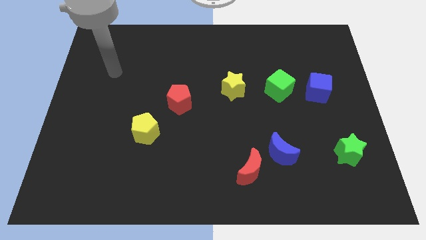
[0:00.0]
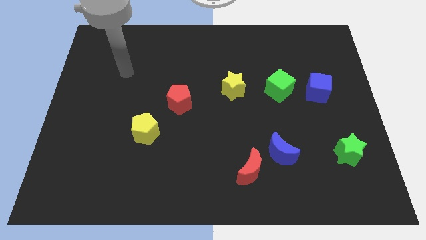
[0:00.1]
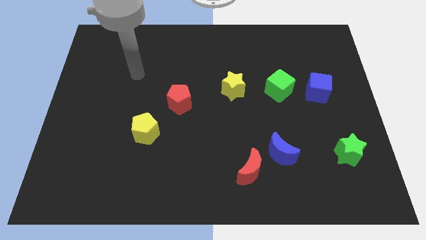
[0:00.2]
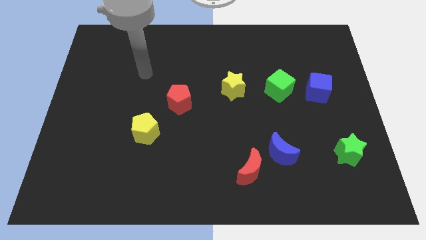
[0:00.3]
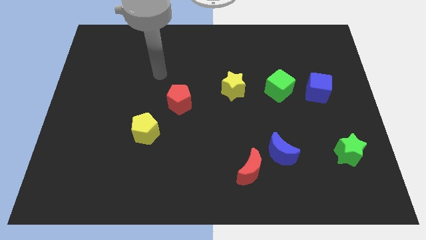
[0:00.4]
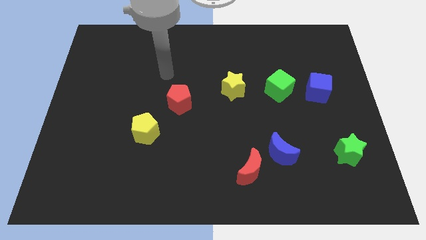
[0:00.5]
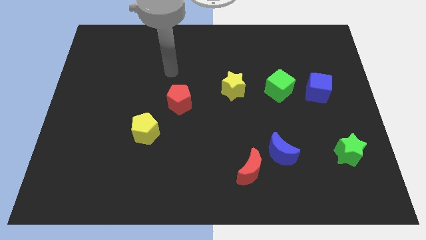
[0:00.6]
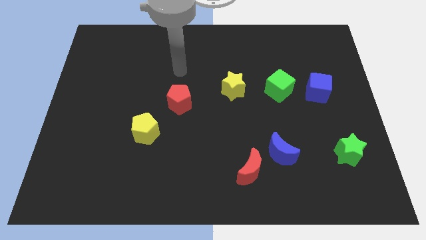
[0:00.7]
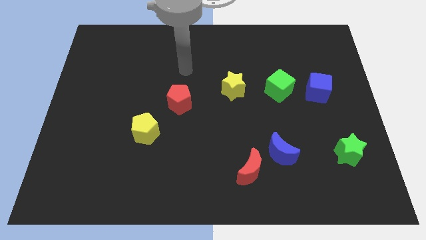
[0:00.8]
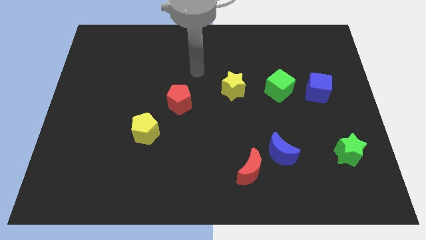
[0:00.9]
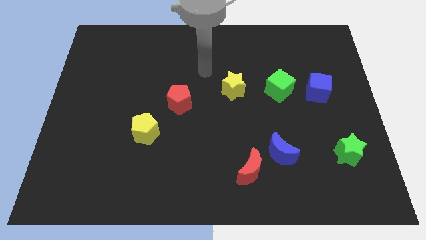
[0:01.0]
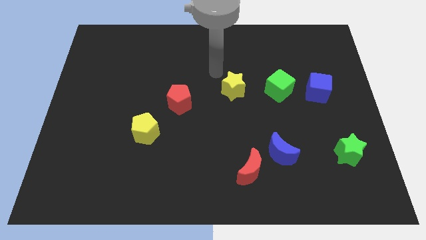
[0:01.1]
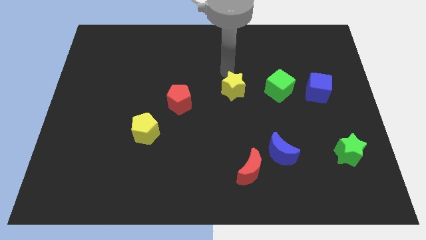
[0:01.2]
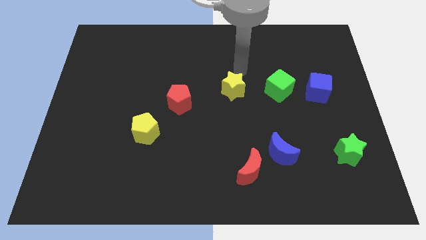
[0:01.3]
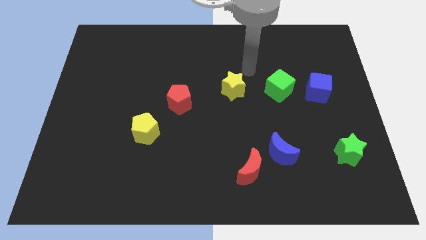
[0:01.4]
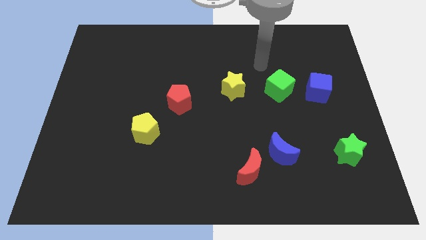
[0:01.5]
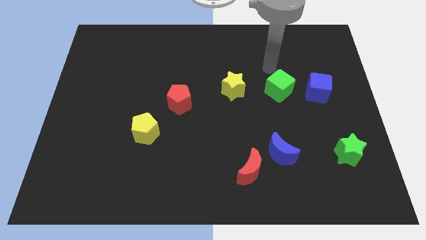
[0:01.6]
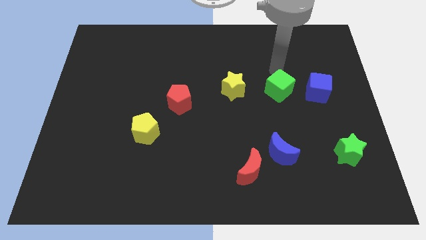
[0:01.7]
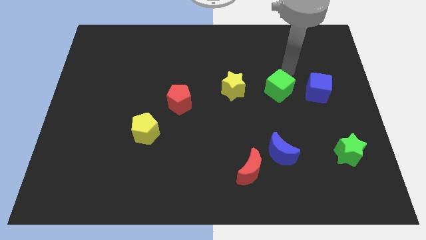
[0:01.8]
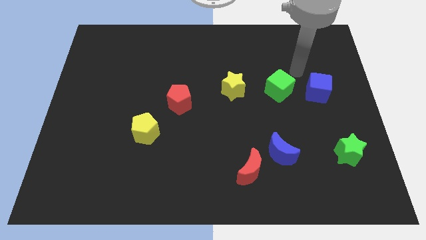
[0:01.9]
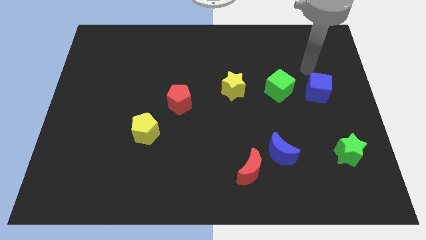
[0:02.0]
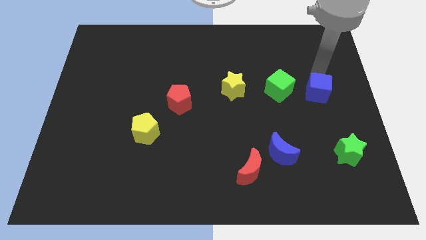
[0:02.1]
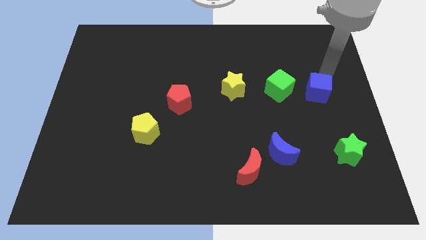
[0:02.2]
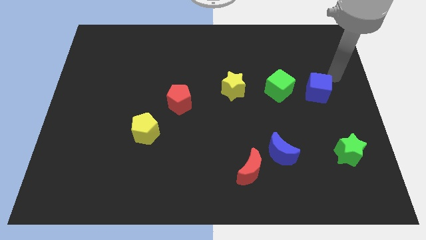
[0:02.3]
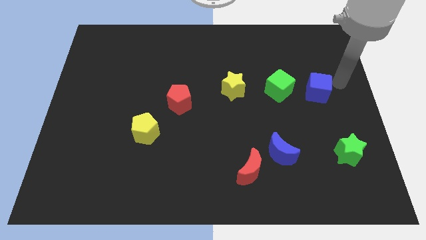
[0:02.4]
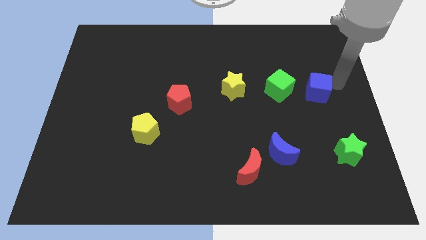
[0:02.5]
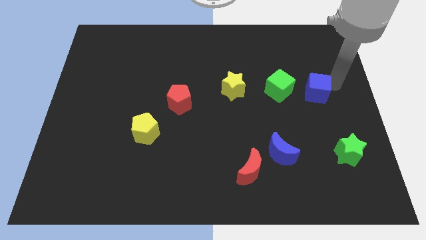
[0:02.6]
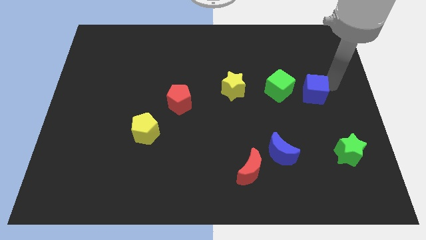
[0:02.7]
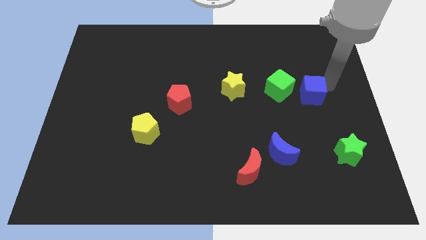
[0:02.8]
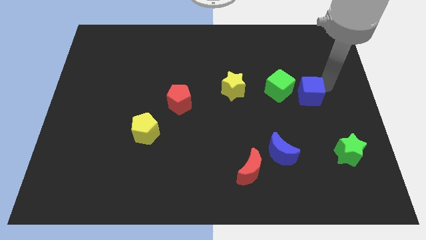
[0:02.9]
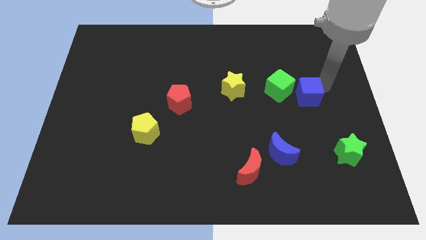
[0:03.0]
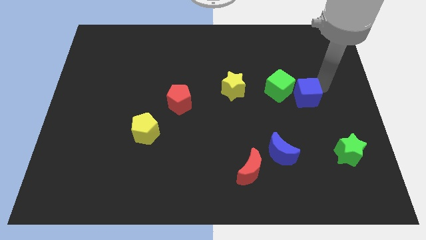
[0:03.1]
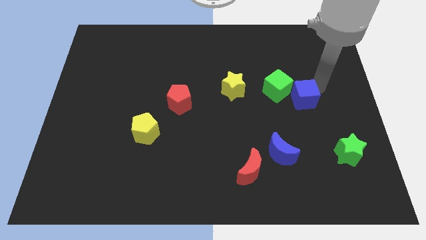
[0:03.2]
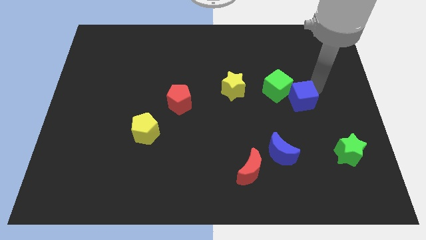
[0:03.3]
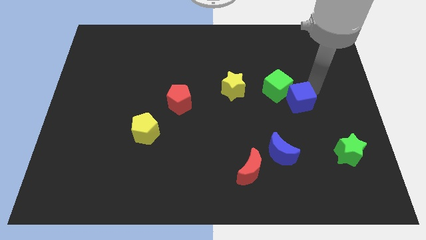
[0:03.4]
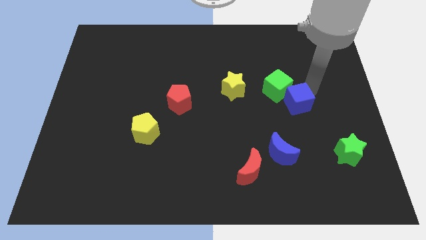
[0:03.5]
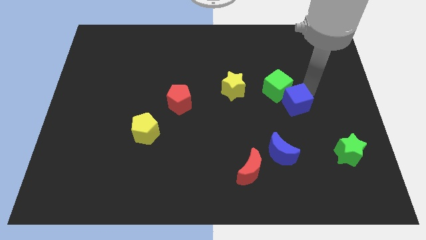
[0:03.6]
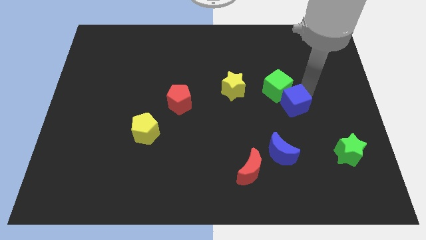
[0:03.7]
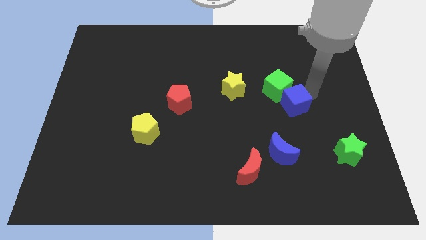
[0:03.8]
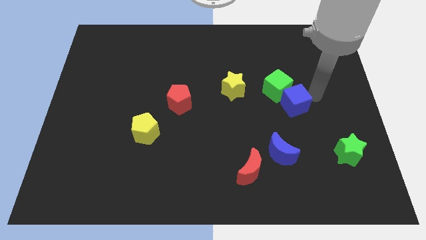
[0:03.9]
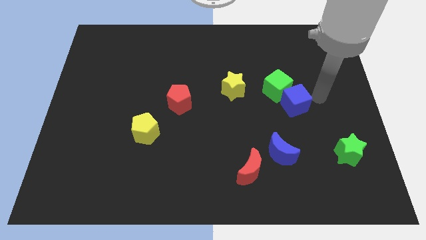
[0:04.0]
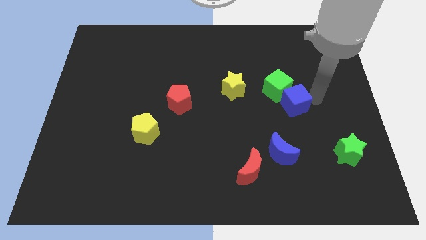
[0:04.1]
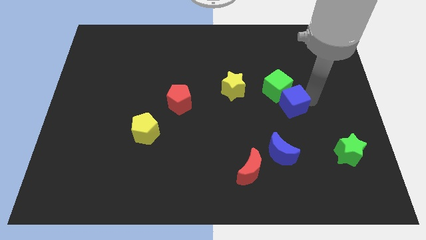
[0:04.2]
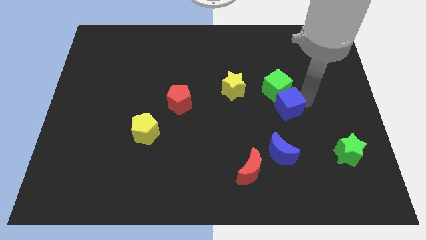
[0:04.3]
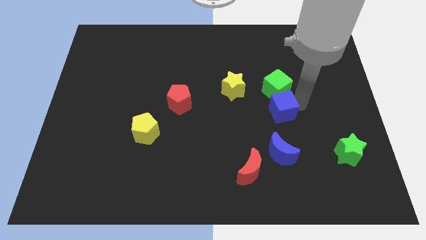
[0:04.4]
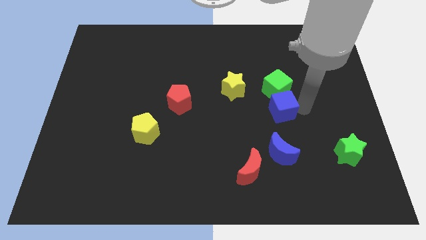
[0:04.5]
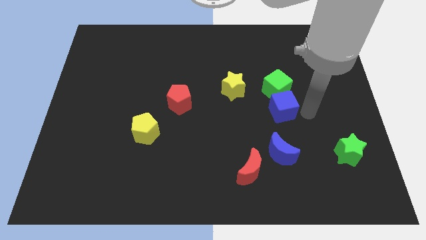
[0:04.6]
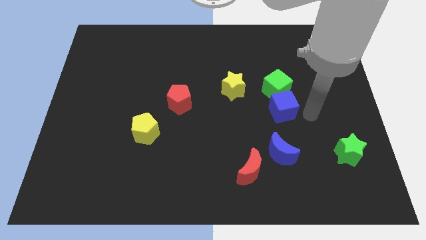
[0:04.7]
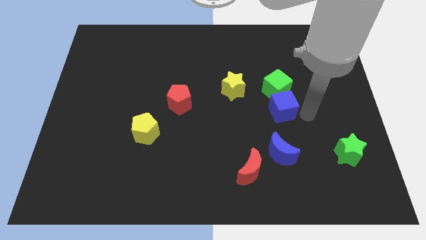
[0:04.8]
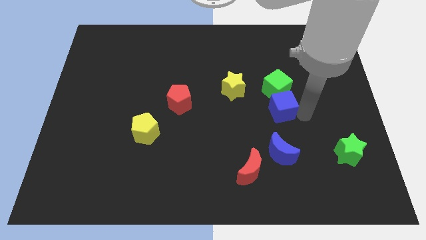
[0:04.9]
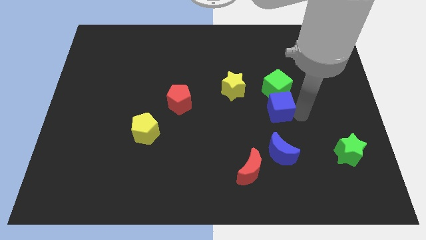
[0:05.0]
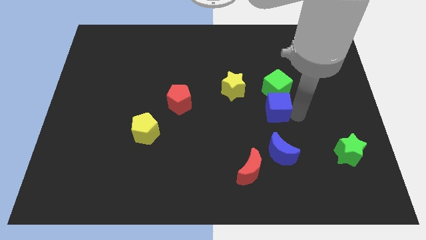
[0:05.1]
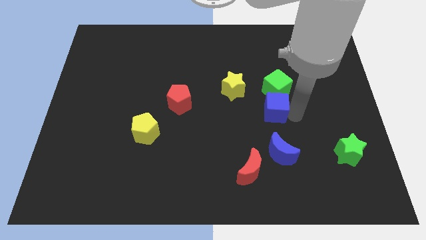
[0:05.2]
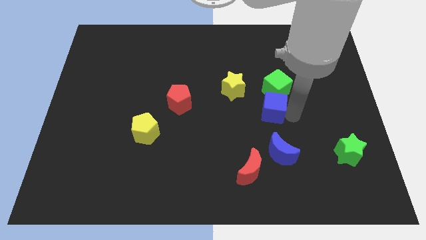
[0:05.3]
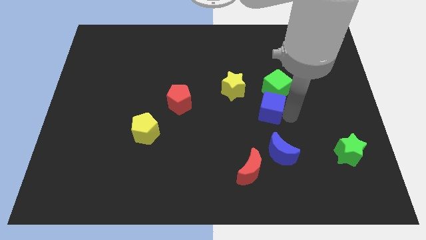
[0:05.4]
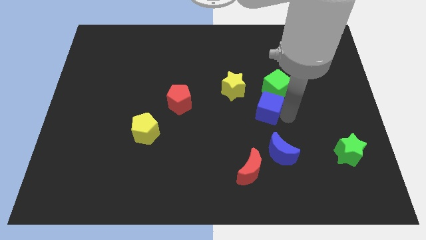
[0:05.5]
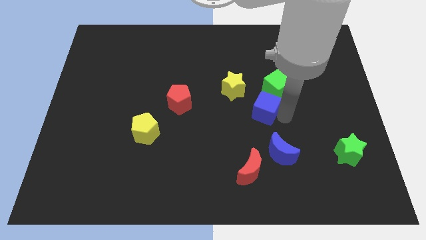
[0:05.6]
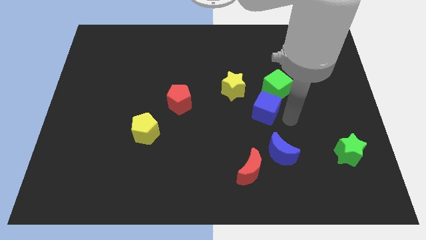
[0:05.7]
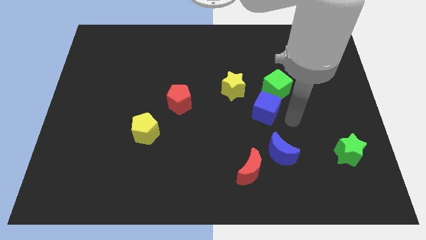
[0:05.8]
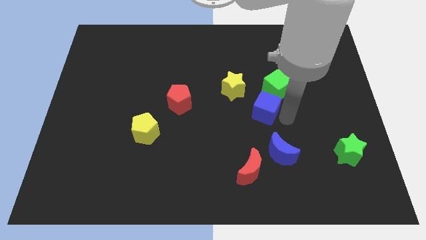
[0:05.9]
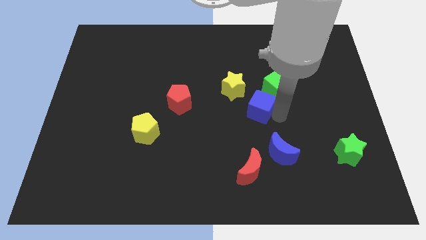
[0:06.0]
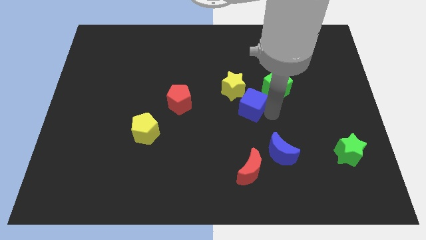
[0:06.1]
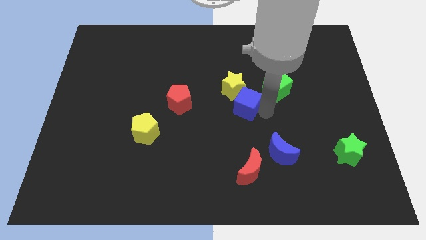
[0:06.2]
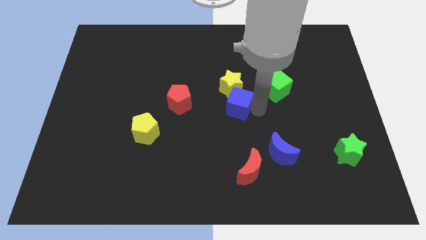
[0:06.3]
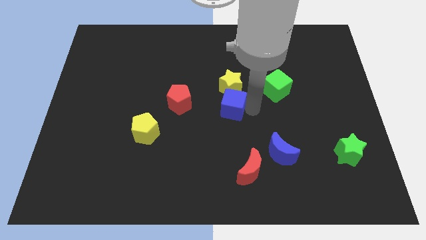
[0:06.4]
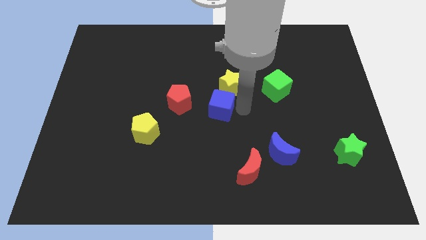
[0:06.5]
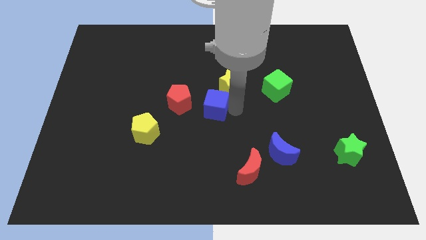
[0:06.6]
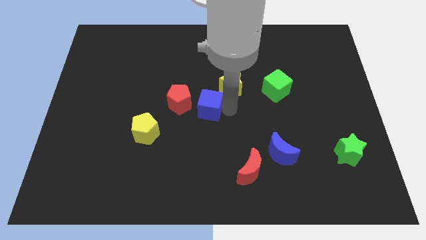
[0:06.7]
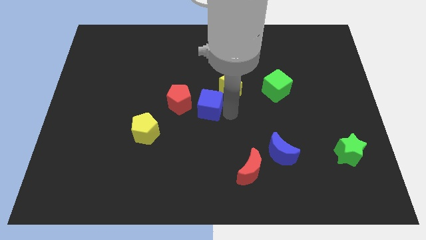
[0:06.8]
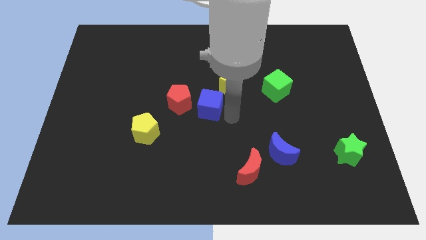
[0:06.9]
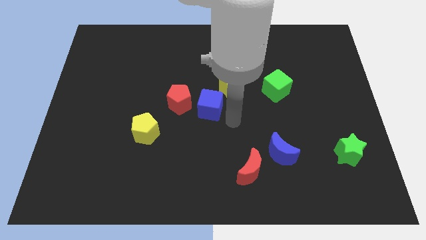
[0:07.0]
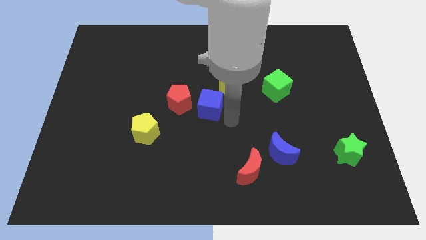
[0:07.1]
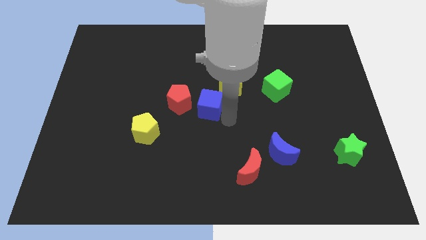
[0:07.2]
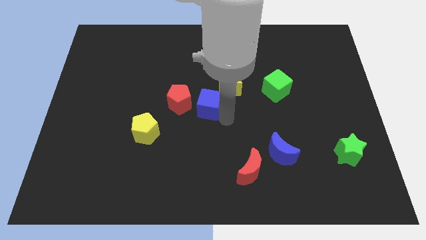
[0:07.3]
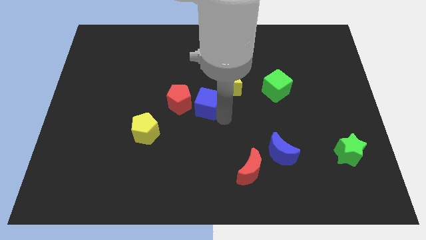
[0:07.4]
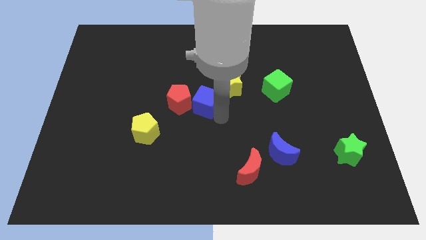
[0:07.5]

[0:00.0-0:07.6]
push the blue cube next to the red pentagon
